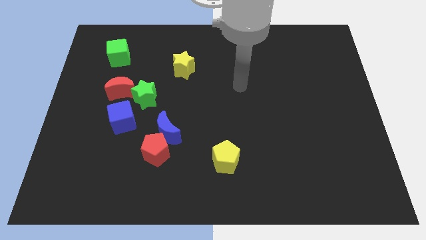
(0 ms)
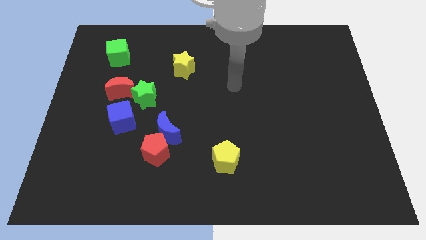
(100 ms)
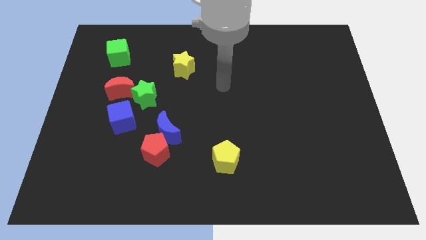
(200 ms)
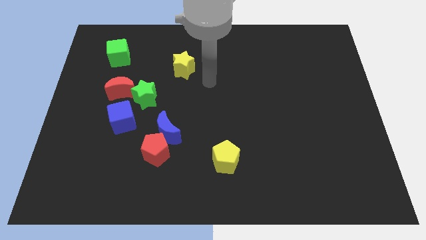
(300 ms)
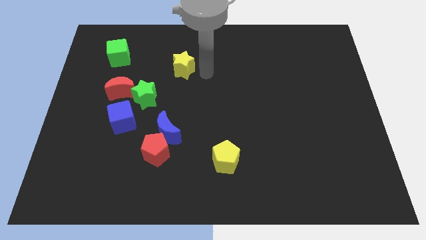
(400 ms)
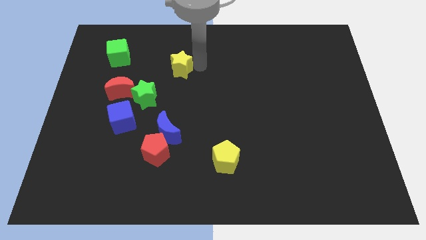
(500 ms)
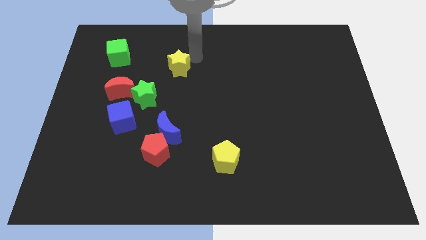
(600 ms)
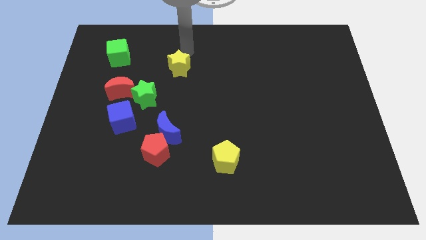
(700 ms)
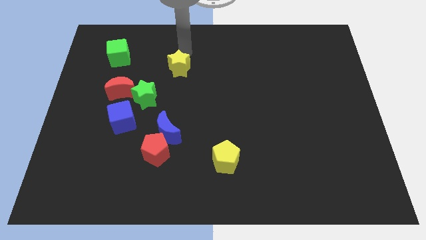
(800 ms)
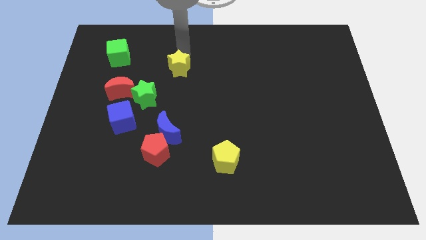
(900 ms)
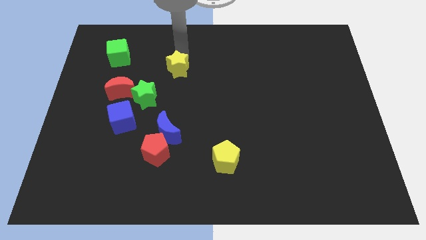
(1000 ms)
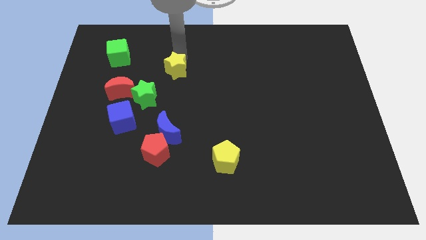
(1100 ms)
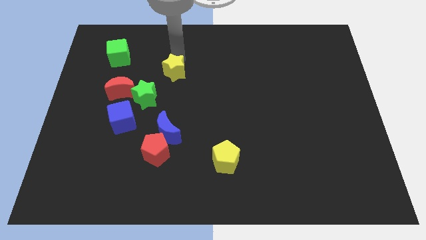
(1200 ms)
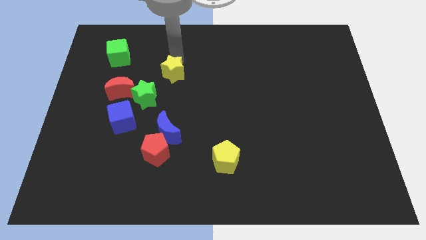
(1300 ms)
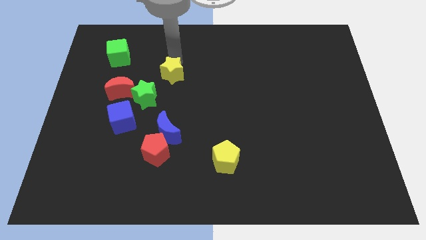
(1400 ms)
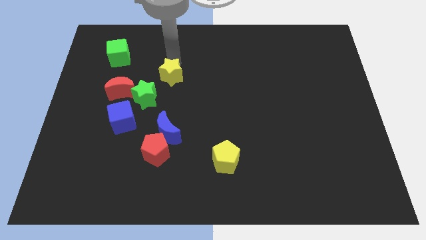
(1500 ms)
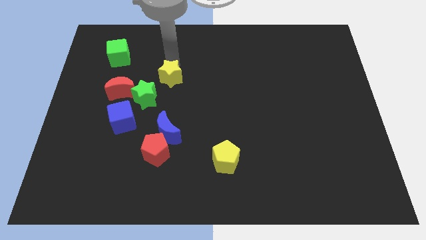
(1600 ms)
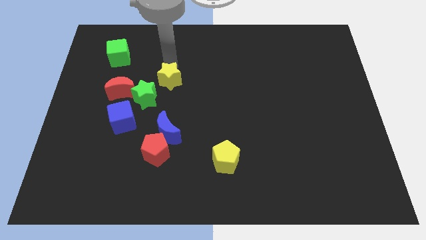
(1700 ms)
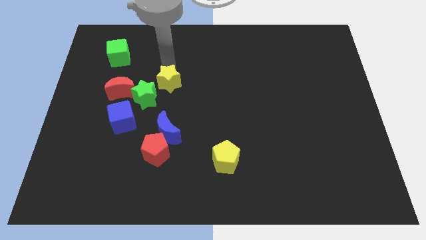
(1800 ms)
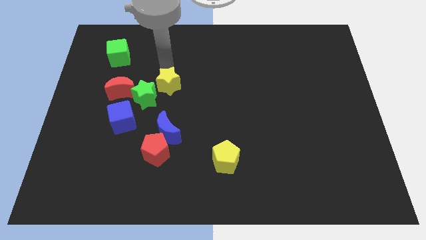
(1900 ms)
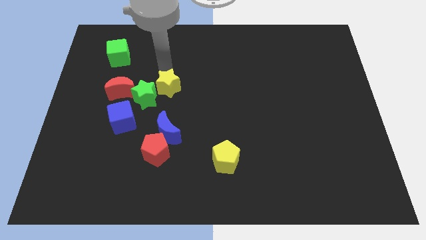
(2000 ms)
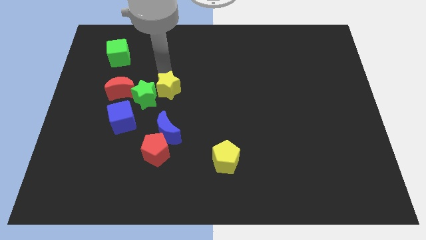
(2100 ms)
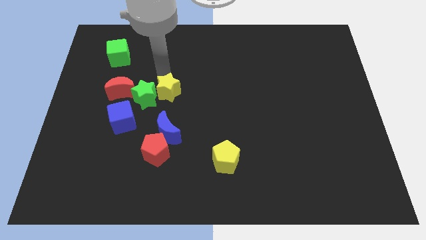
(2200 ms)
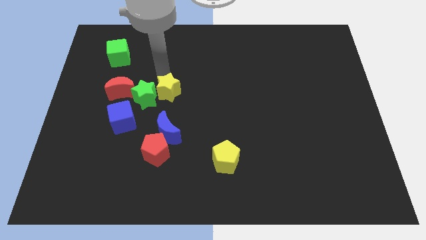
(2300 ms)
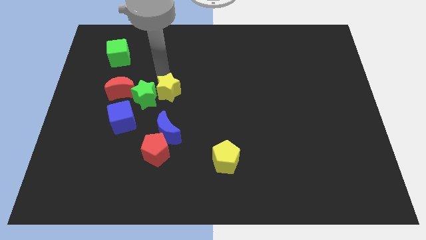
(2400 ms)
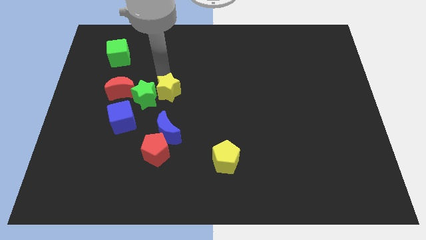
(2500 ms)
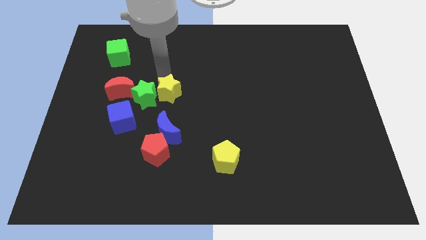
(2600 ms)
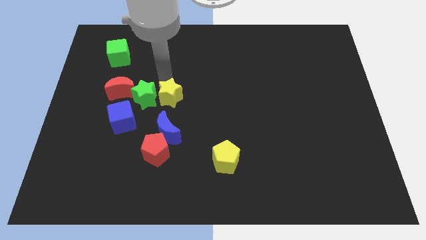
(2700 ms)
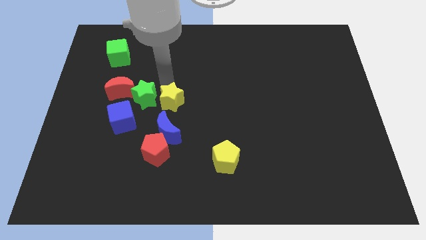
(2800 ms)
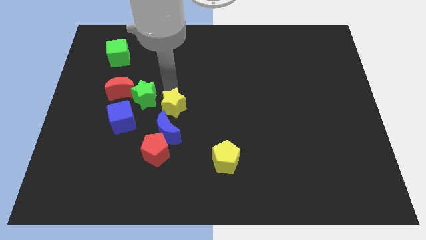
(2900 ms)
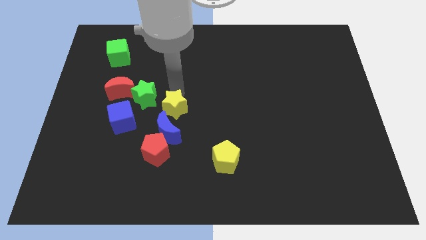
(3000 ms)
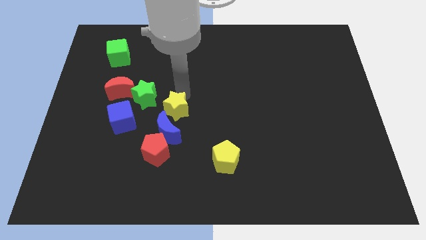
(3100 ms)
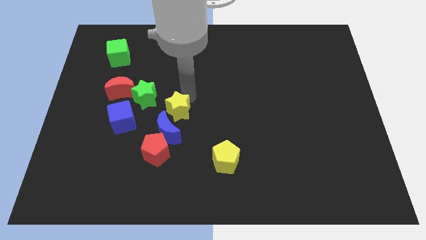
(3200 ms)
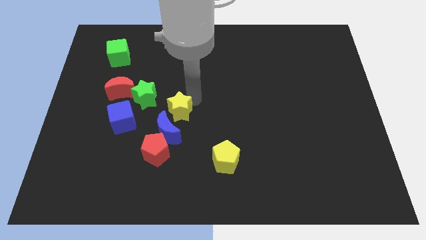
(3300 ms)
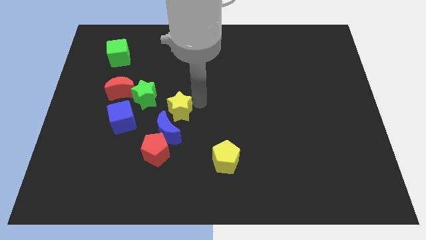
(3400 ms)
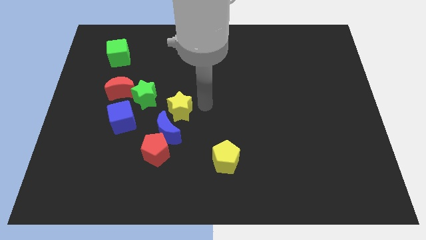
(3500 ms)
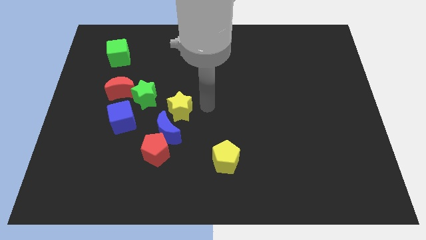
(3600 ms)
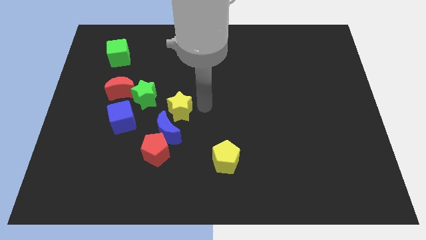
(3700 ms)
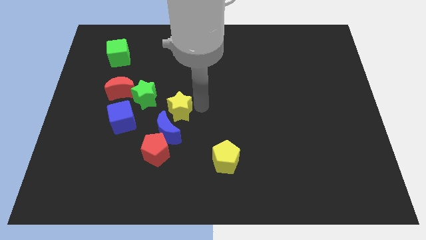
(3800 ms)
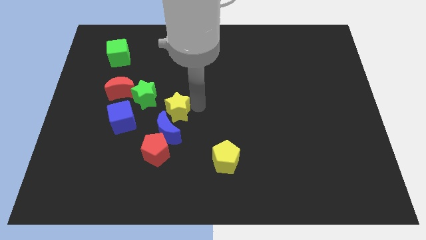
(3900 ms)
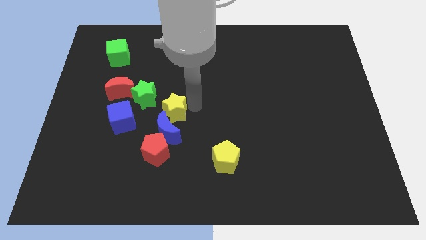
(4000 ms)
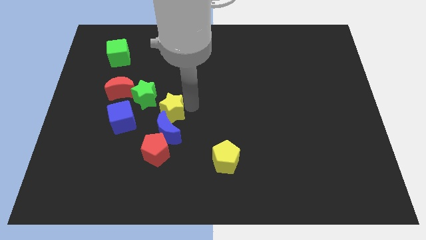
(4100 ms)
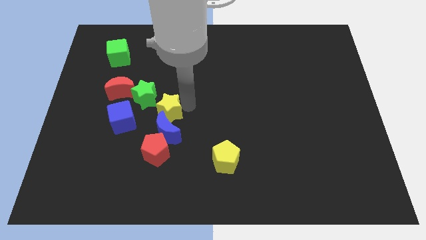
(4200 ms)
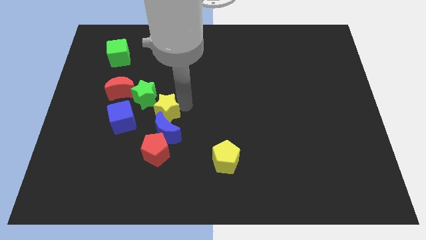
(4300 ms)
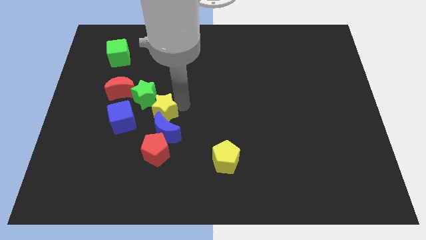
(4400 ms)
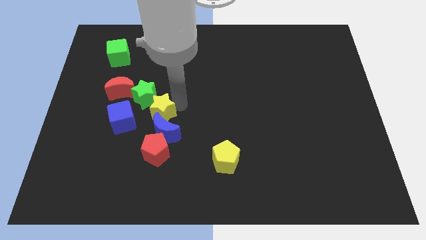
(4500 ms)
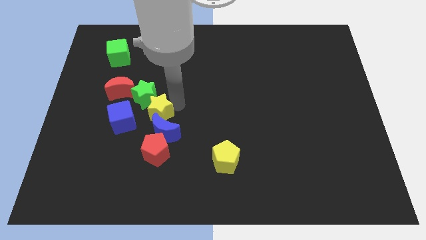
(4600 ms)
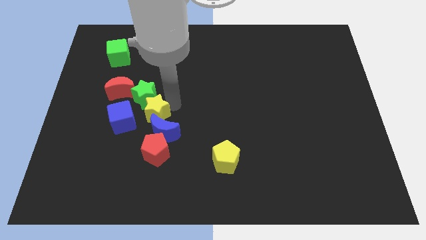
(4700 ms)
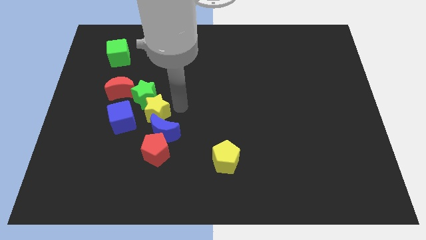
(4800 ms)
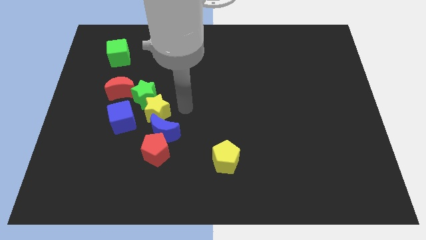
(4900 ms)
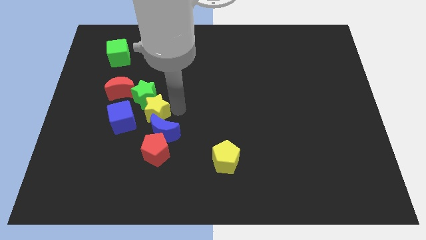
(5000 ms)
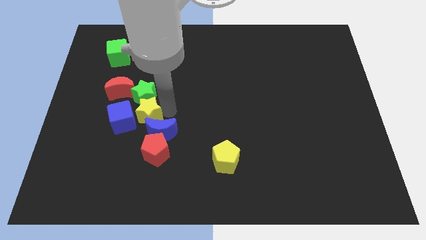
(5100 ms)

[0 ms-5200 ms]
slide the yellow star towards the blue cube

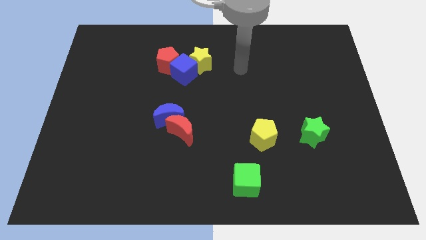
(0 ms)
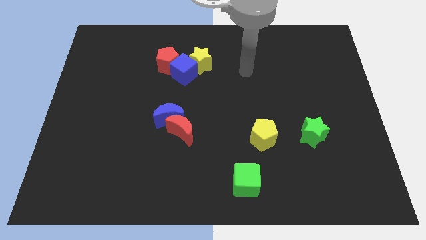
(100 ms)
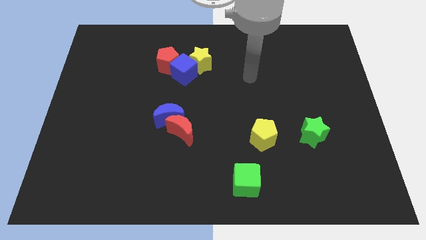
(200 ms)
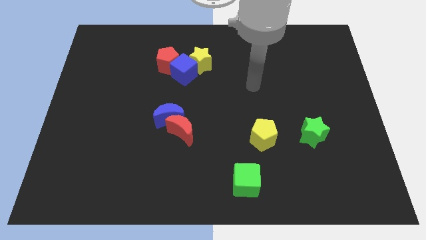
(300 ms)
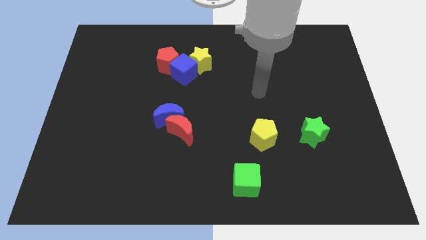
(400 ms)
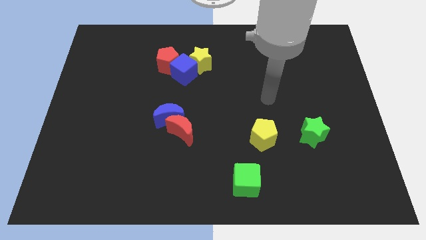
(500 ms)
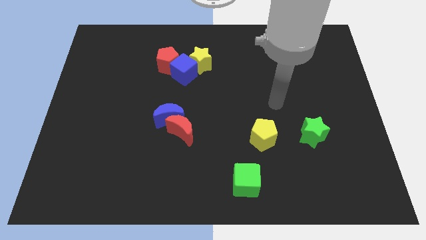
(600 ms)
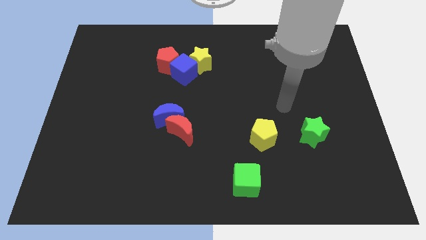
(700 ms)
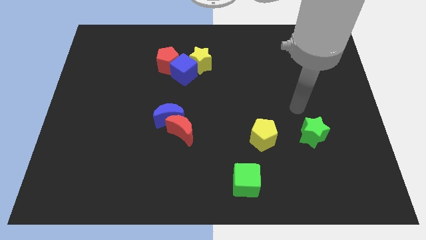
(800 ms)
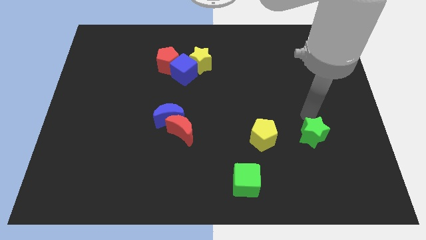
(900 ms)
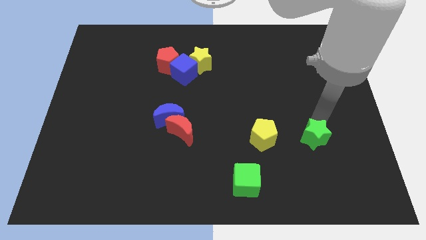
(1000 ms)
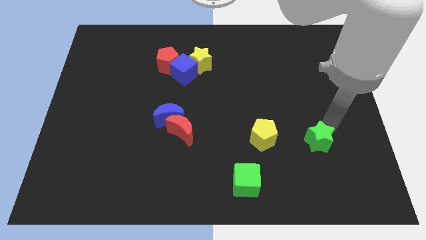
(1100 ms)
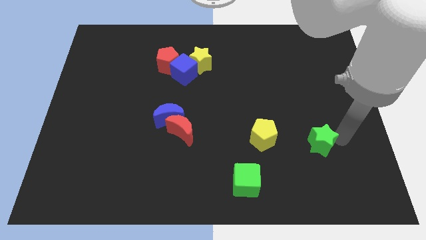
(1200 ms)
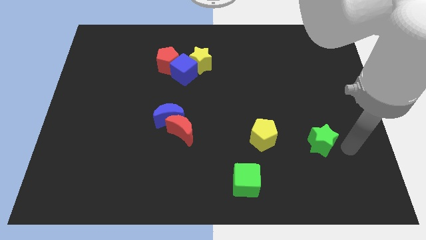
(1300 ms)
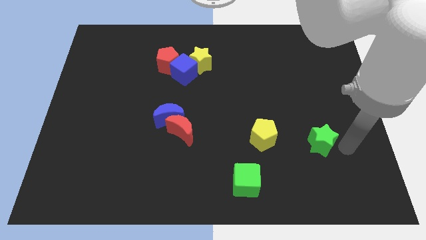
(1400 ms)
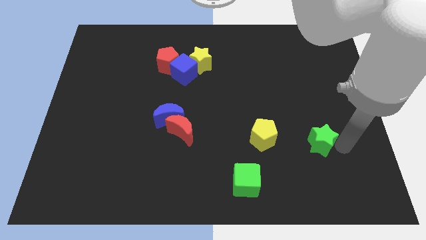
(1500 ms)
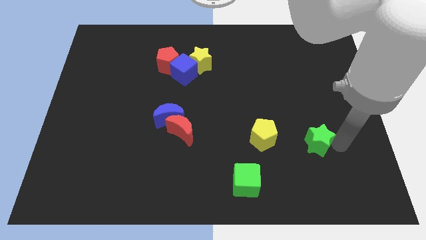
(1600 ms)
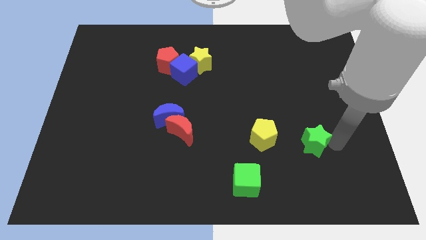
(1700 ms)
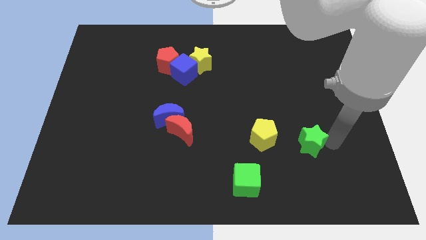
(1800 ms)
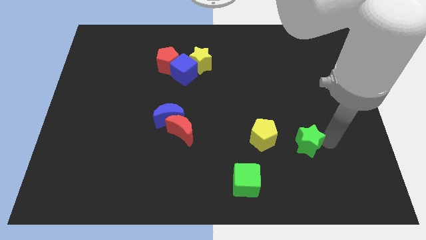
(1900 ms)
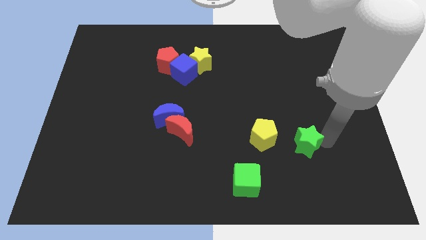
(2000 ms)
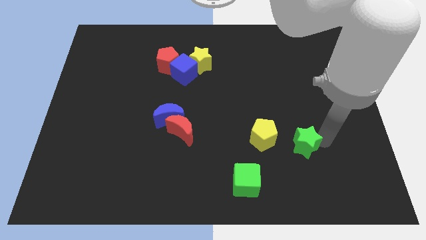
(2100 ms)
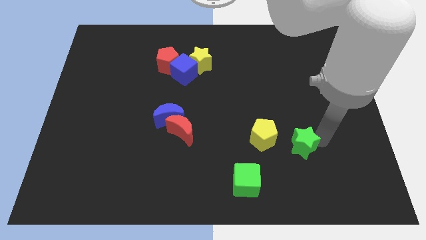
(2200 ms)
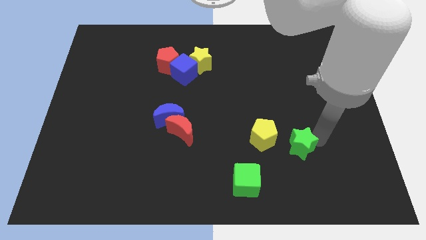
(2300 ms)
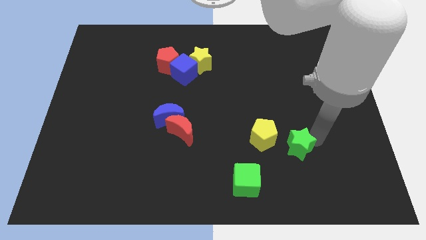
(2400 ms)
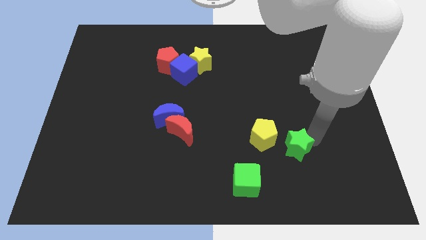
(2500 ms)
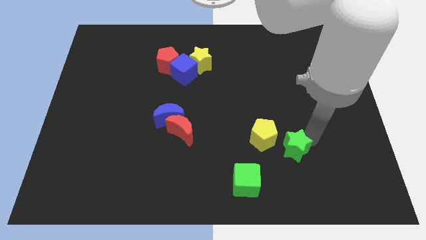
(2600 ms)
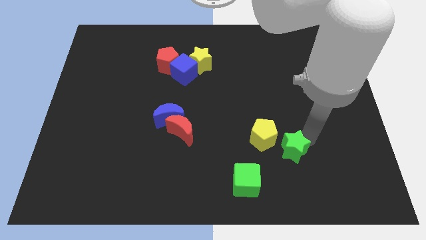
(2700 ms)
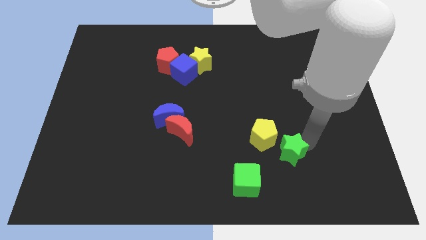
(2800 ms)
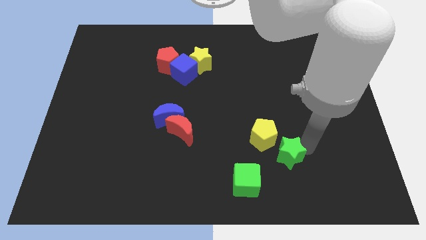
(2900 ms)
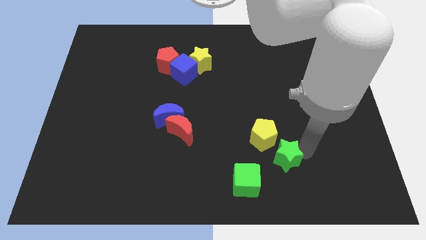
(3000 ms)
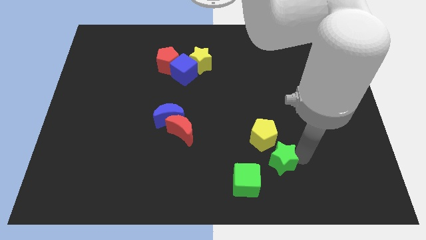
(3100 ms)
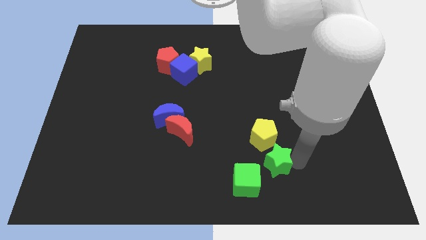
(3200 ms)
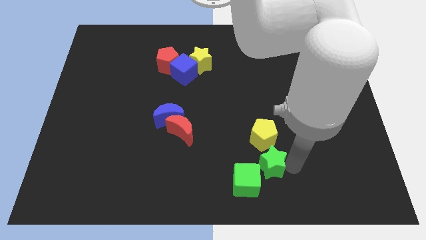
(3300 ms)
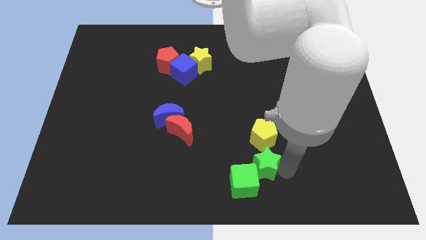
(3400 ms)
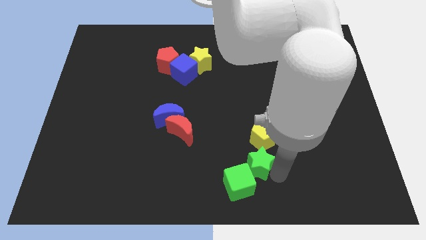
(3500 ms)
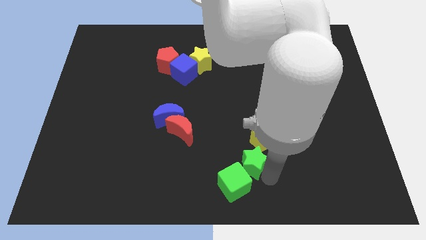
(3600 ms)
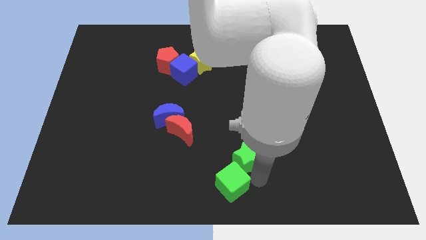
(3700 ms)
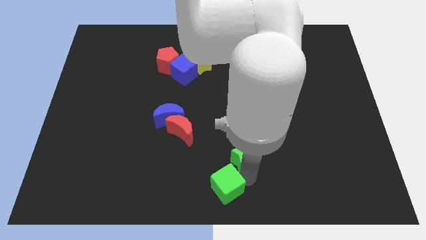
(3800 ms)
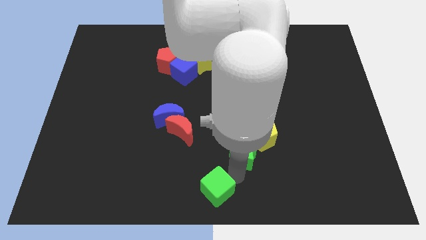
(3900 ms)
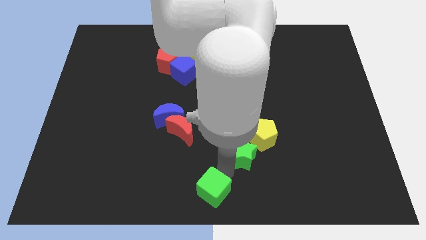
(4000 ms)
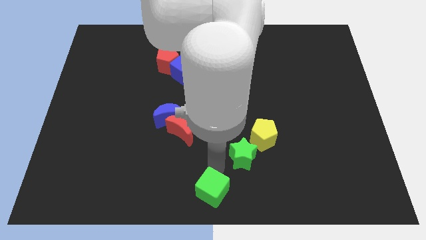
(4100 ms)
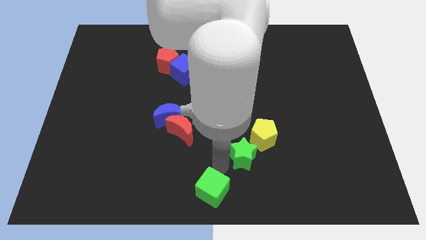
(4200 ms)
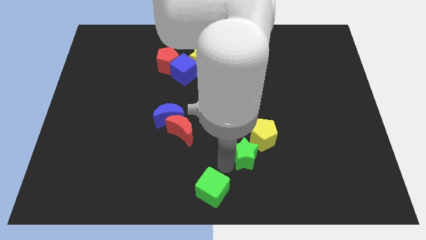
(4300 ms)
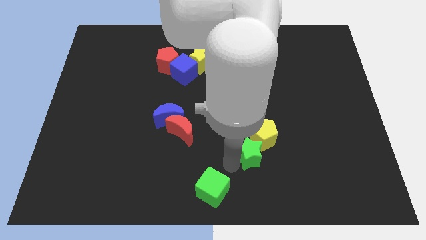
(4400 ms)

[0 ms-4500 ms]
put the green star close to the yellow pentagon
